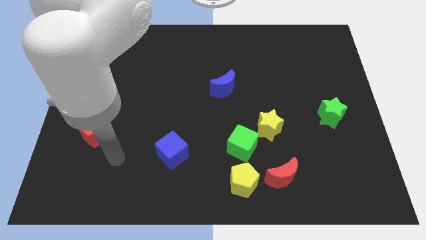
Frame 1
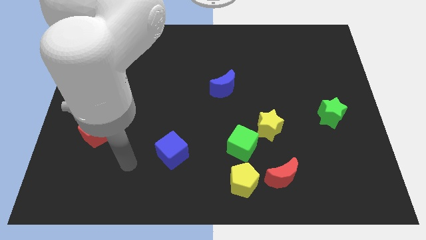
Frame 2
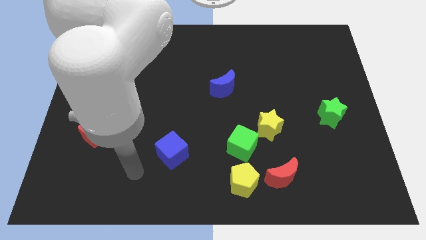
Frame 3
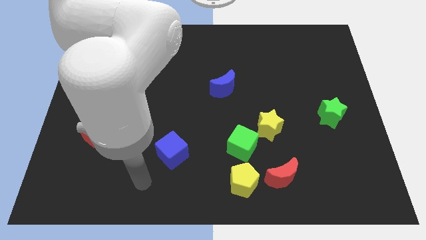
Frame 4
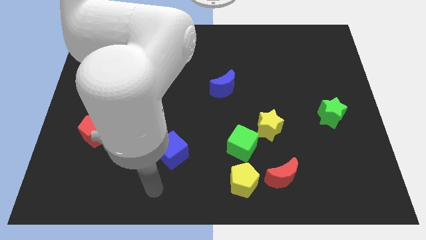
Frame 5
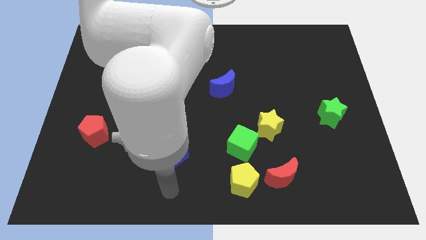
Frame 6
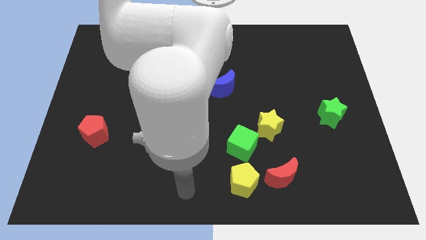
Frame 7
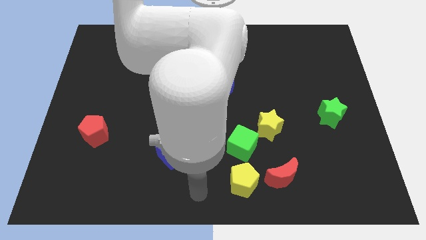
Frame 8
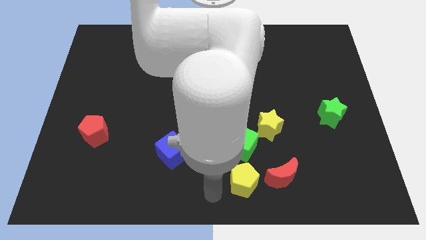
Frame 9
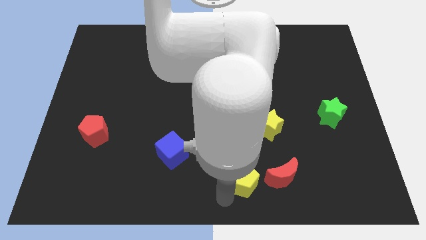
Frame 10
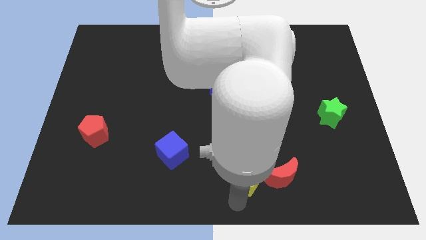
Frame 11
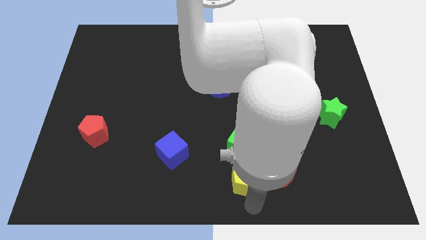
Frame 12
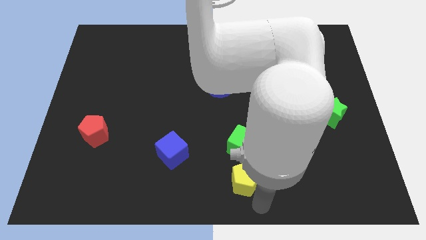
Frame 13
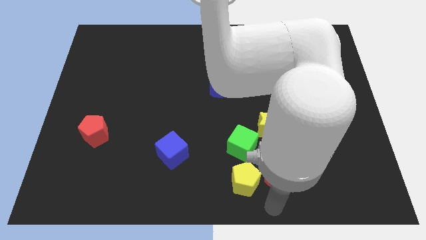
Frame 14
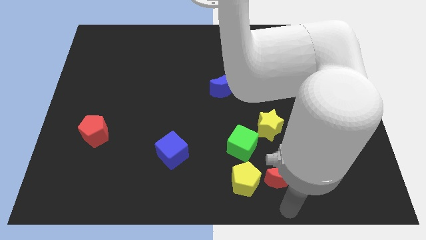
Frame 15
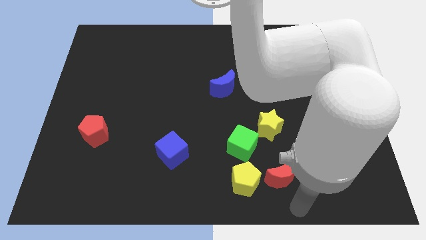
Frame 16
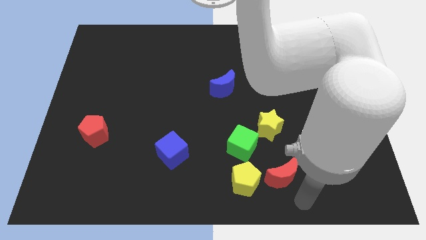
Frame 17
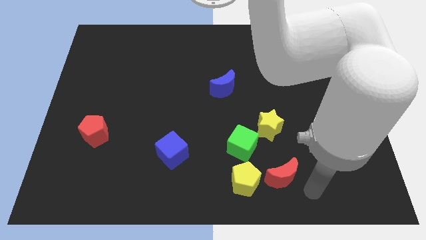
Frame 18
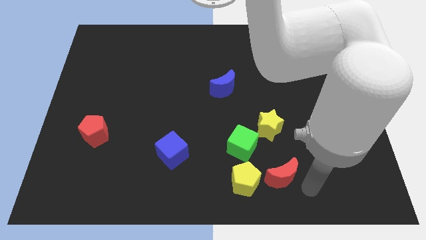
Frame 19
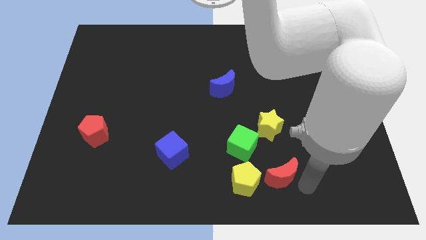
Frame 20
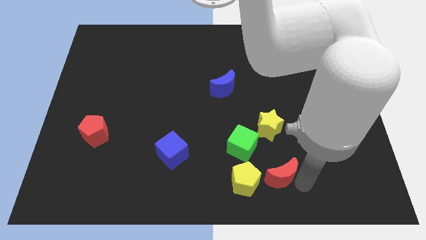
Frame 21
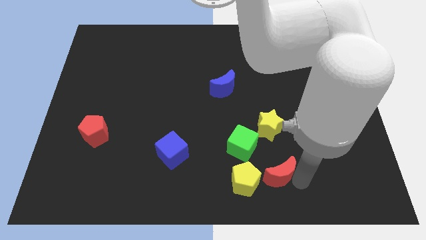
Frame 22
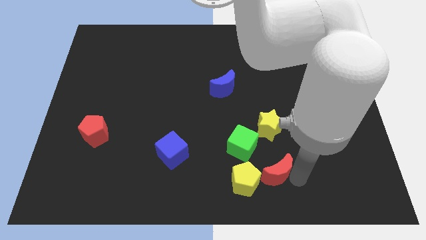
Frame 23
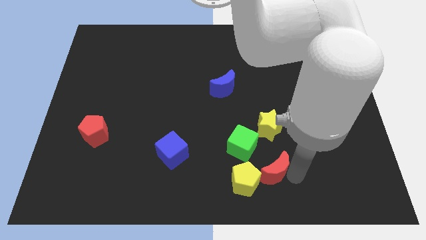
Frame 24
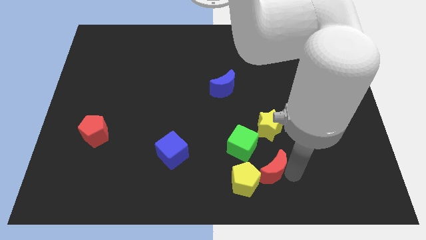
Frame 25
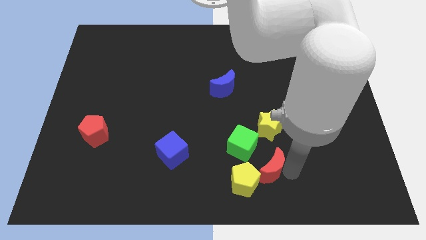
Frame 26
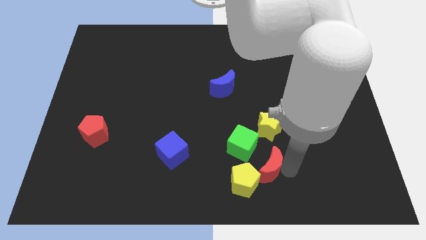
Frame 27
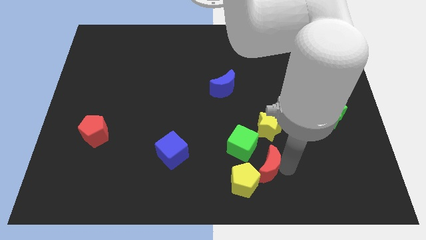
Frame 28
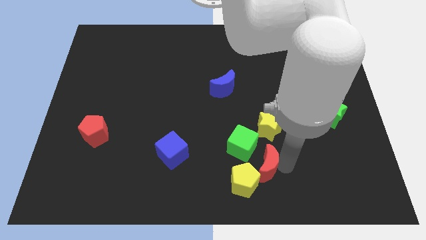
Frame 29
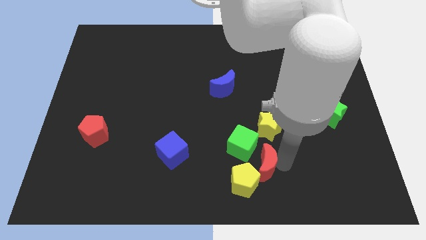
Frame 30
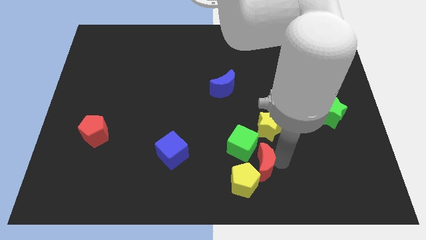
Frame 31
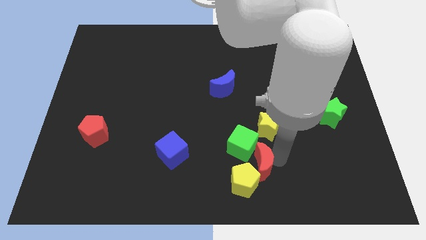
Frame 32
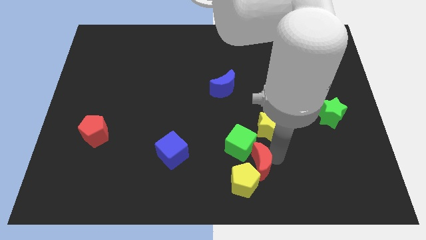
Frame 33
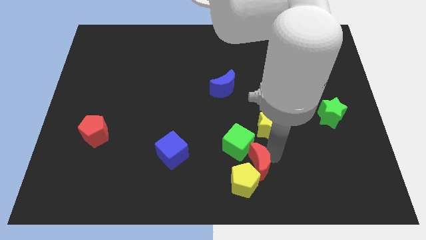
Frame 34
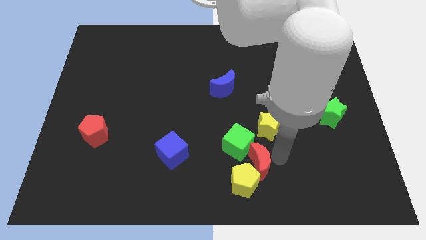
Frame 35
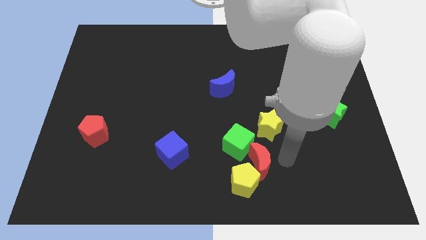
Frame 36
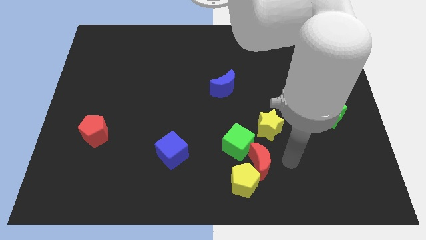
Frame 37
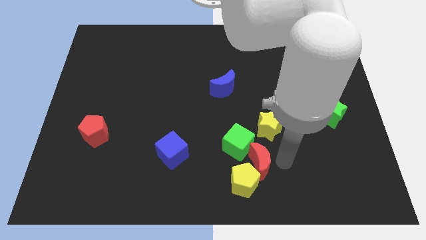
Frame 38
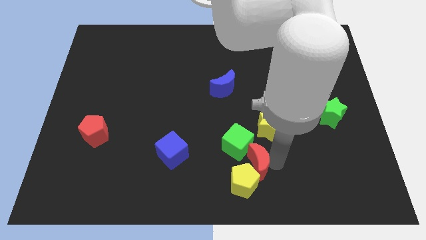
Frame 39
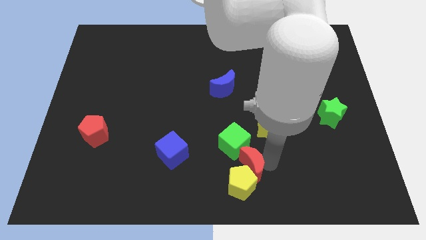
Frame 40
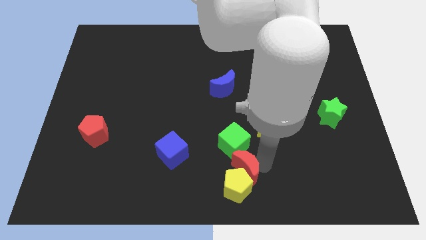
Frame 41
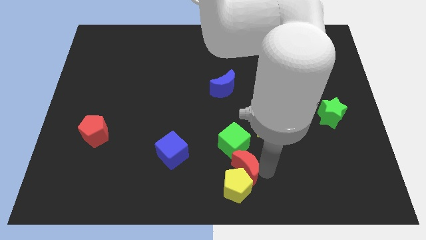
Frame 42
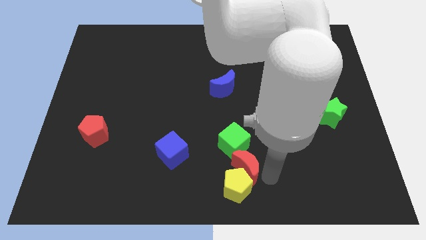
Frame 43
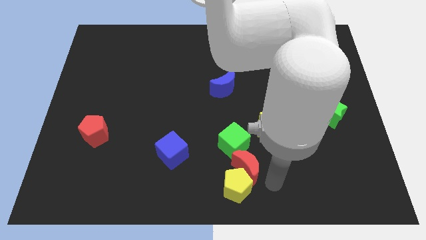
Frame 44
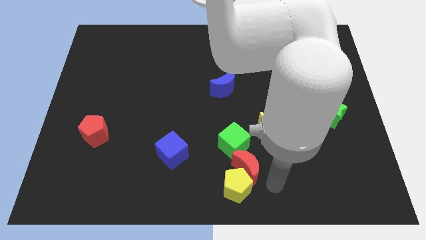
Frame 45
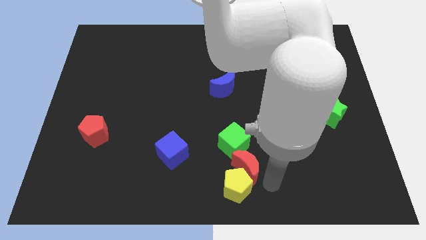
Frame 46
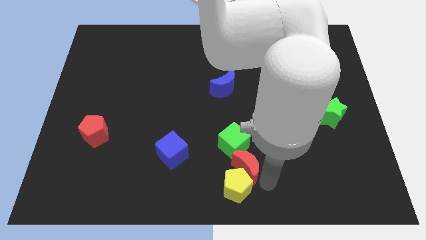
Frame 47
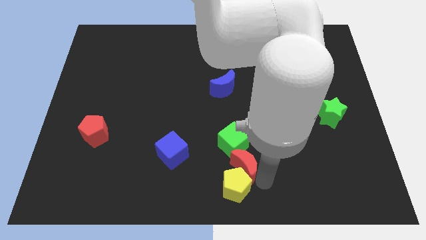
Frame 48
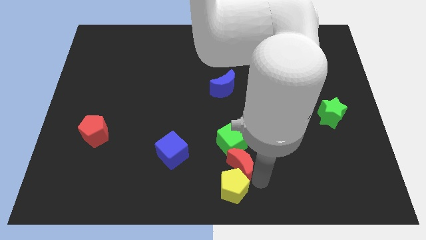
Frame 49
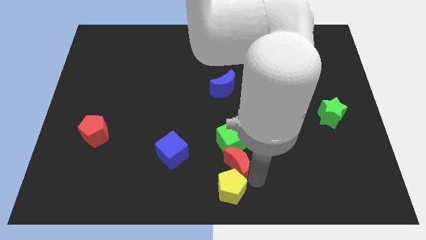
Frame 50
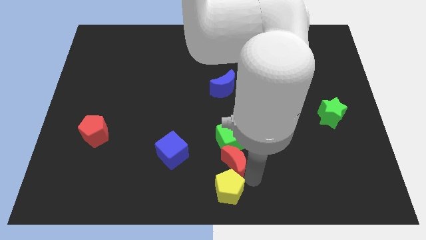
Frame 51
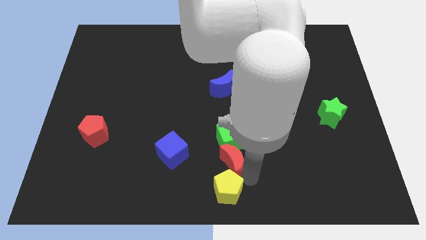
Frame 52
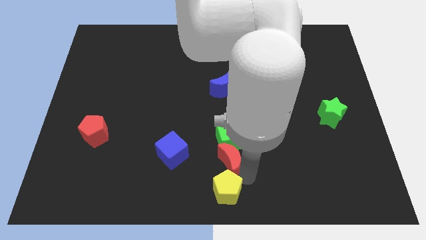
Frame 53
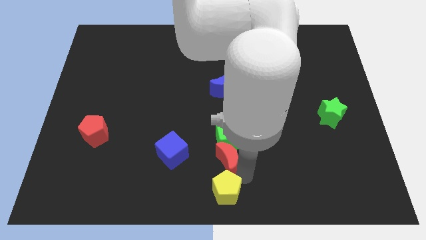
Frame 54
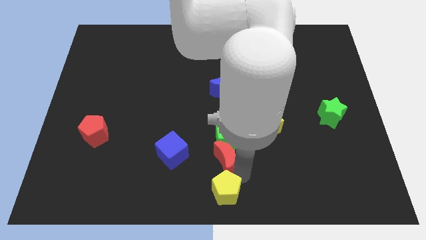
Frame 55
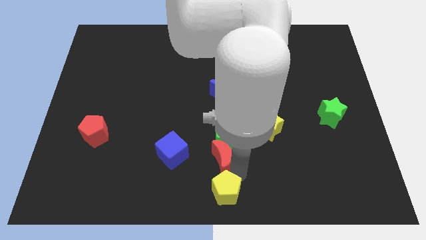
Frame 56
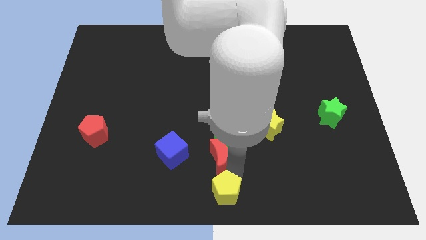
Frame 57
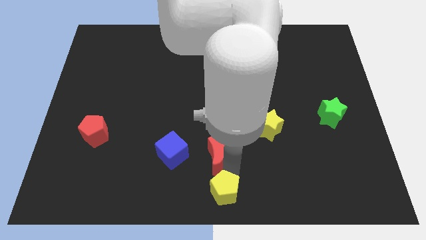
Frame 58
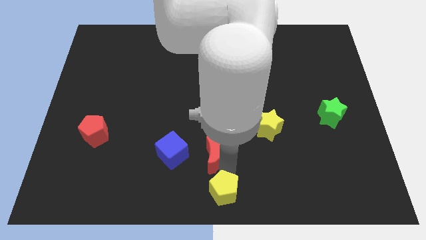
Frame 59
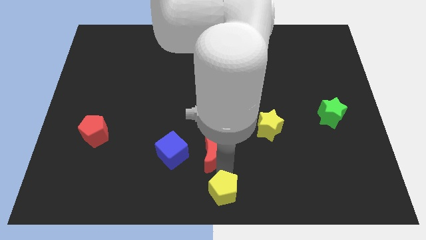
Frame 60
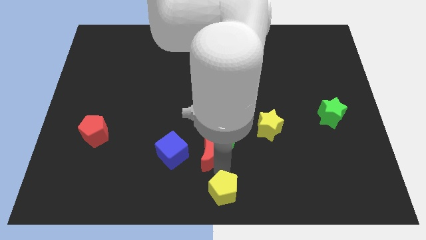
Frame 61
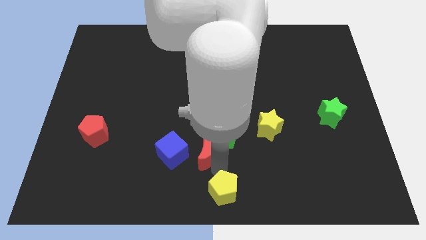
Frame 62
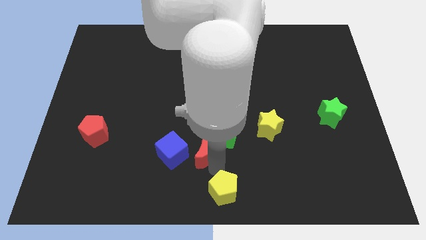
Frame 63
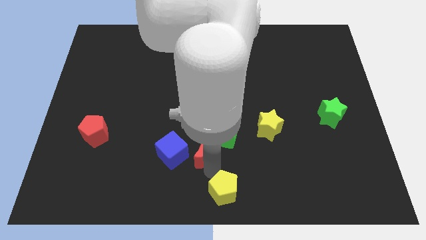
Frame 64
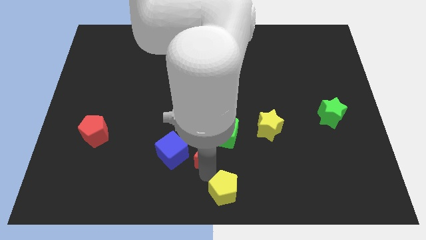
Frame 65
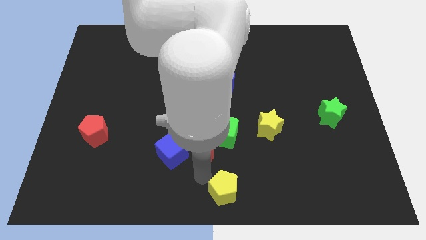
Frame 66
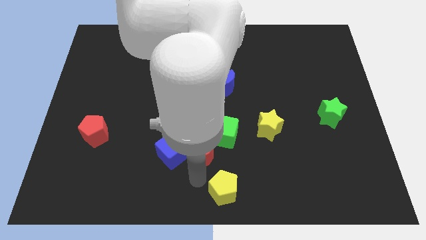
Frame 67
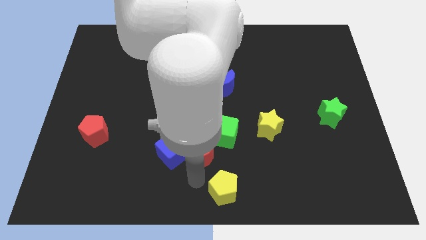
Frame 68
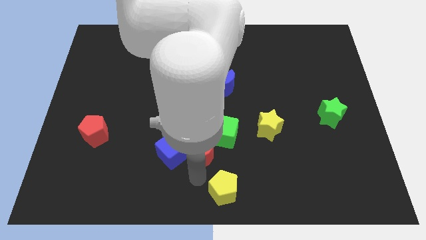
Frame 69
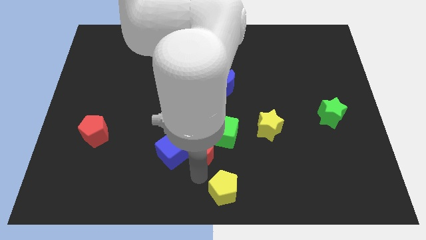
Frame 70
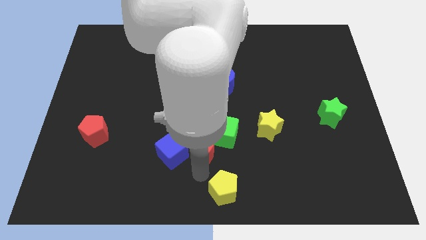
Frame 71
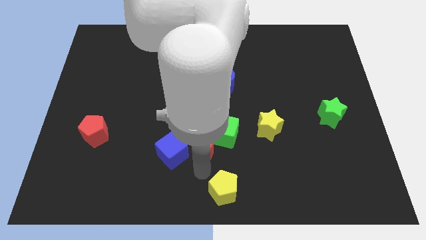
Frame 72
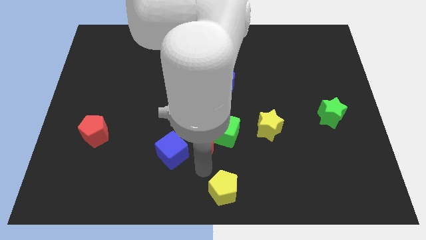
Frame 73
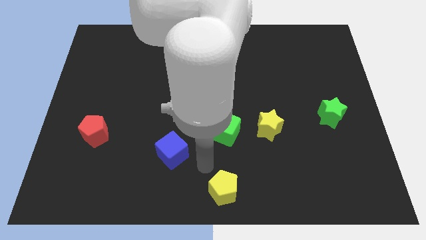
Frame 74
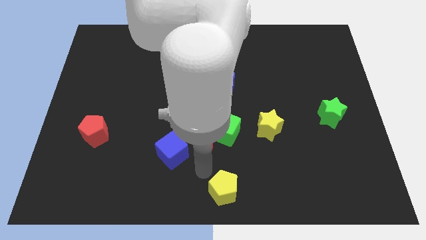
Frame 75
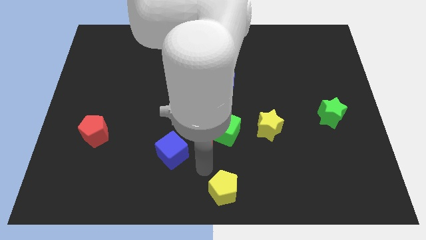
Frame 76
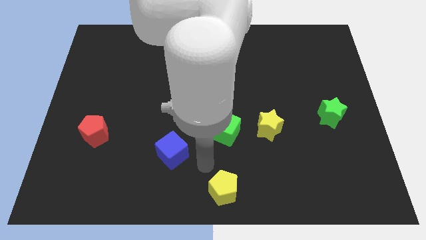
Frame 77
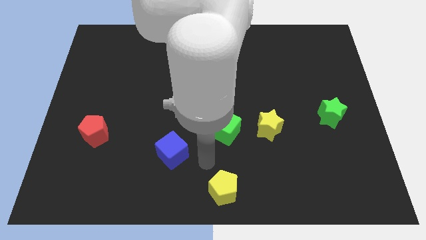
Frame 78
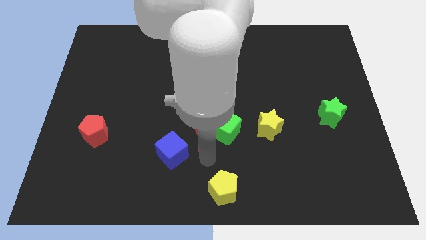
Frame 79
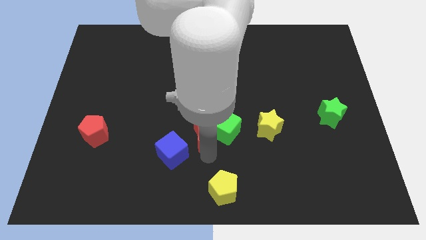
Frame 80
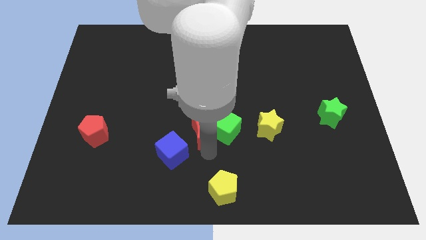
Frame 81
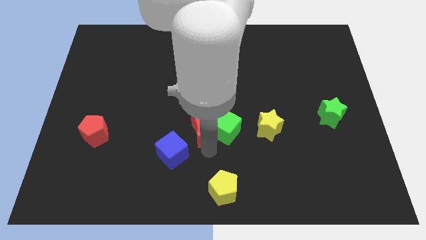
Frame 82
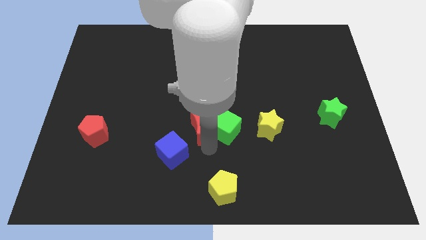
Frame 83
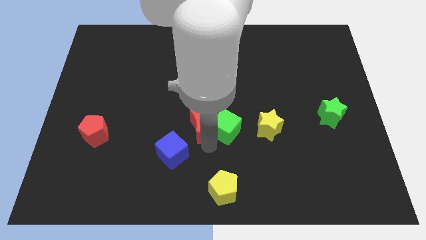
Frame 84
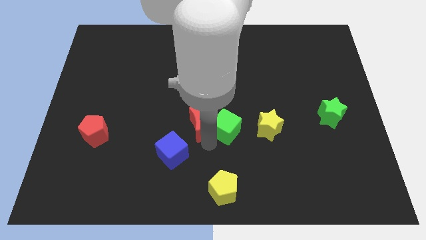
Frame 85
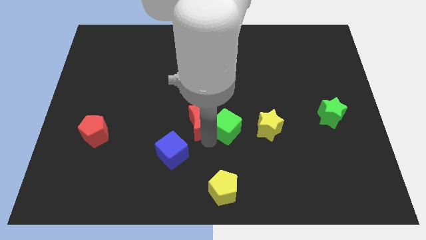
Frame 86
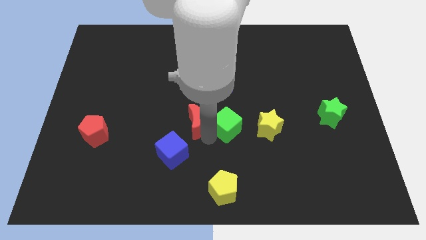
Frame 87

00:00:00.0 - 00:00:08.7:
put the red moon diagonally down and to the left of the blue moon
